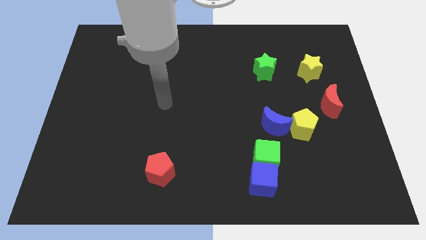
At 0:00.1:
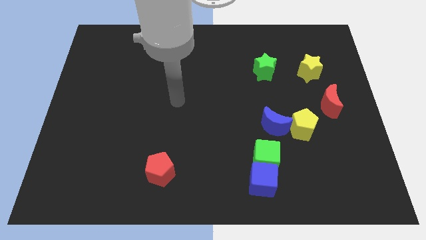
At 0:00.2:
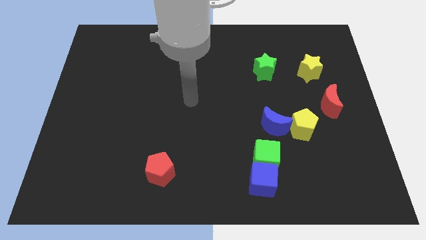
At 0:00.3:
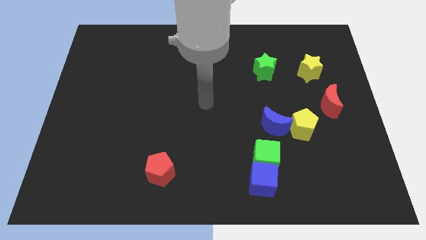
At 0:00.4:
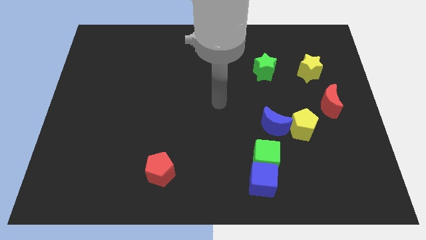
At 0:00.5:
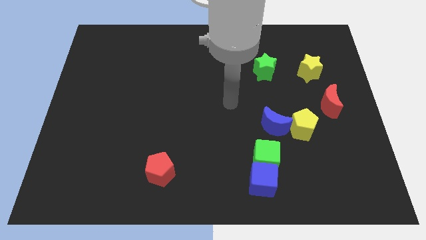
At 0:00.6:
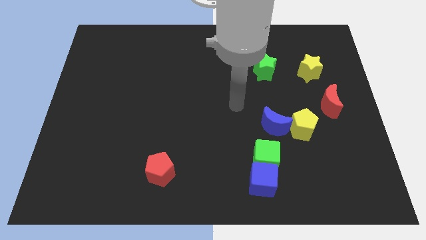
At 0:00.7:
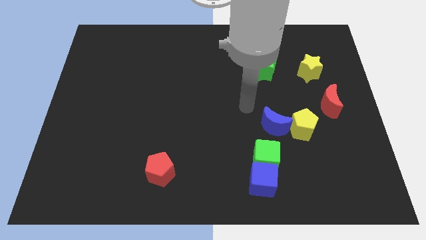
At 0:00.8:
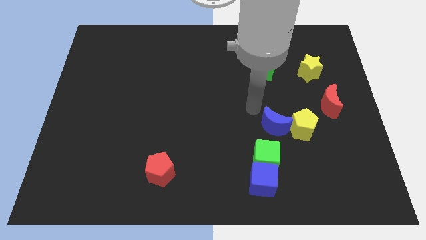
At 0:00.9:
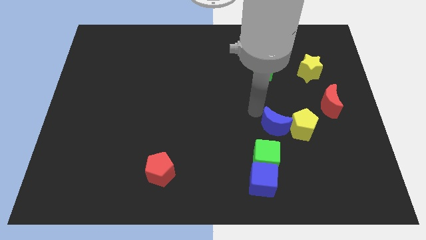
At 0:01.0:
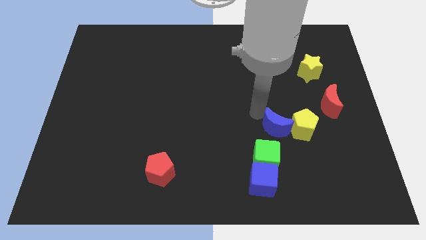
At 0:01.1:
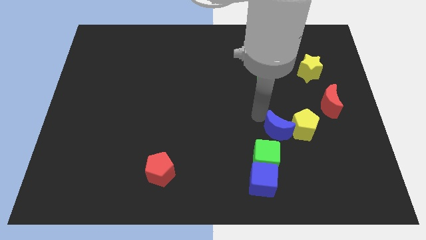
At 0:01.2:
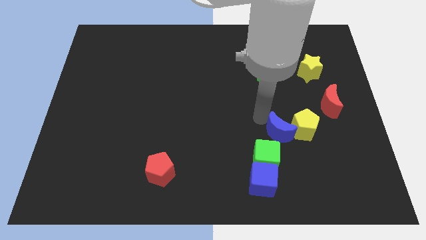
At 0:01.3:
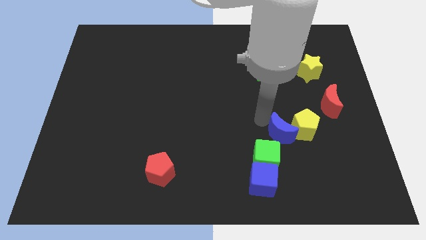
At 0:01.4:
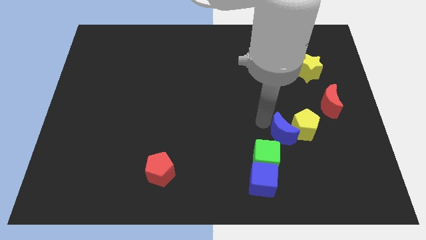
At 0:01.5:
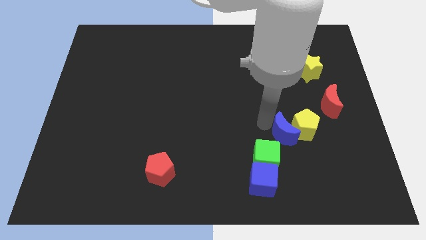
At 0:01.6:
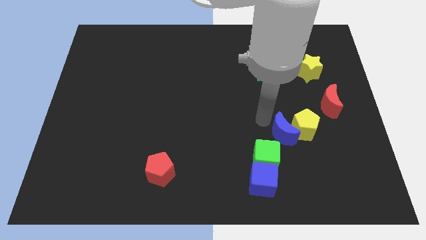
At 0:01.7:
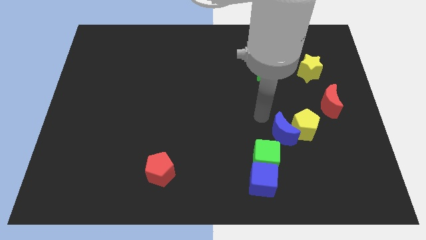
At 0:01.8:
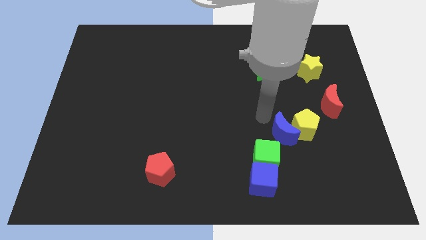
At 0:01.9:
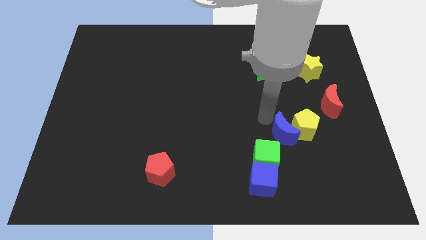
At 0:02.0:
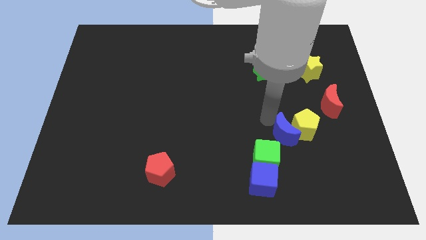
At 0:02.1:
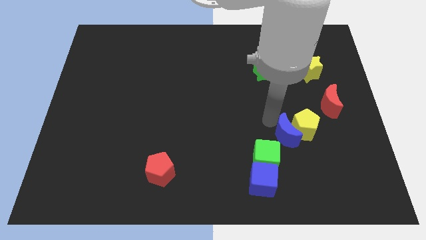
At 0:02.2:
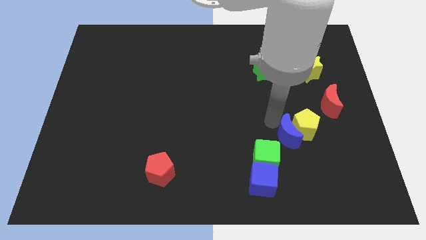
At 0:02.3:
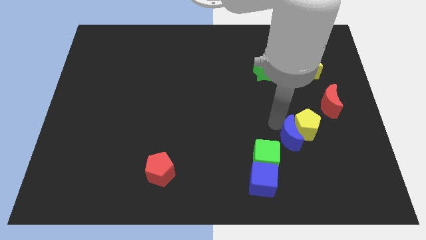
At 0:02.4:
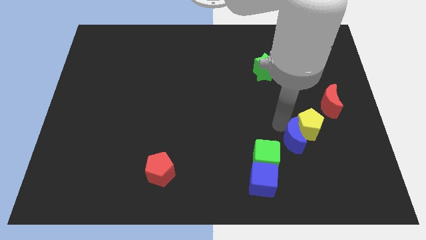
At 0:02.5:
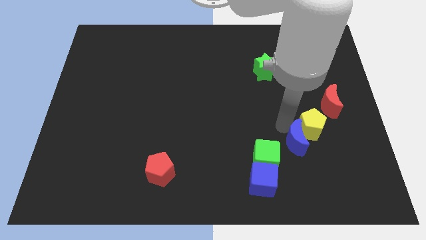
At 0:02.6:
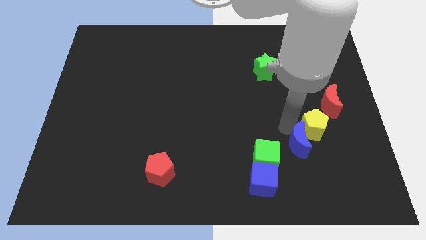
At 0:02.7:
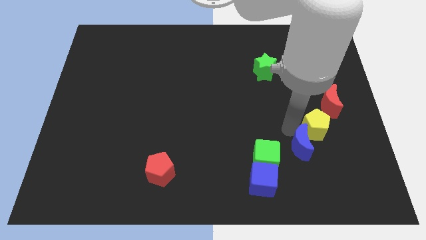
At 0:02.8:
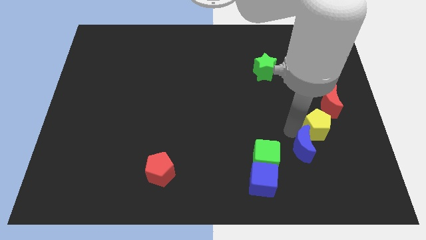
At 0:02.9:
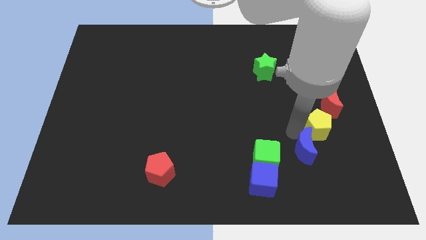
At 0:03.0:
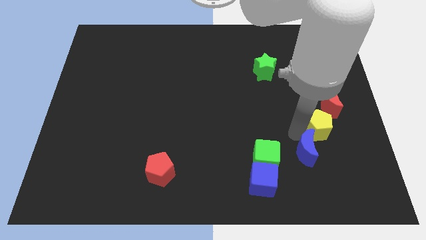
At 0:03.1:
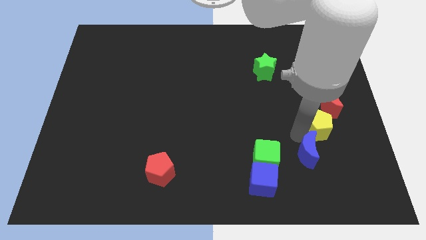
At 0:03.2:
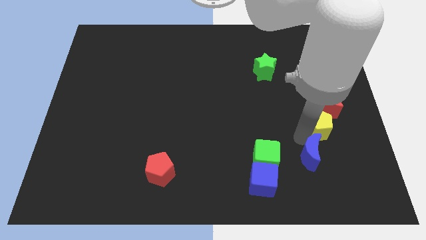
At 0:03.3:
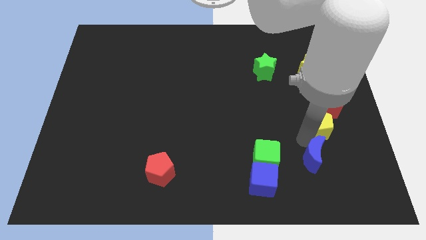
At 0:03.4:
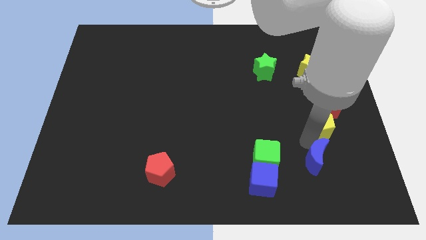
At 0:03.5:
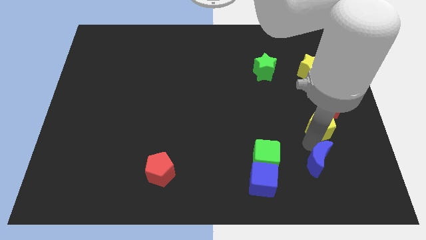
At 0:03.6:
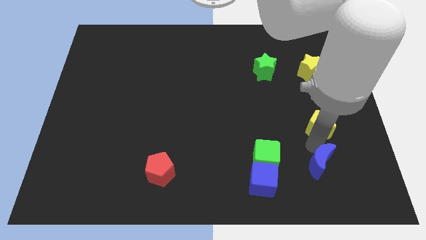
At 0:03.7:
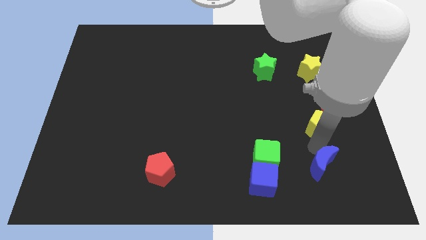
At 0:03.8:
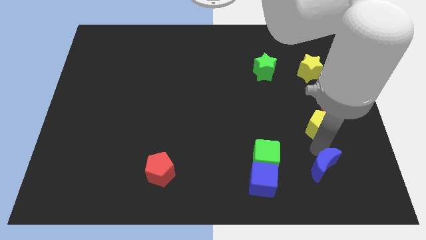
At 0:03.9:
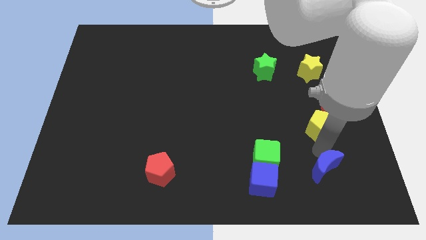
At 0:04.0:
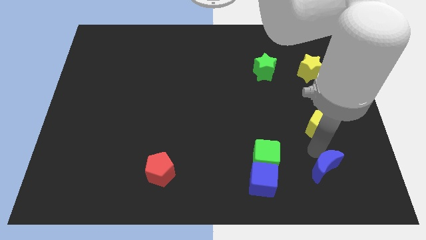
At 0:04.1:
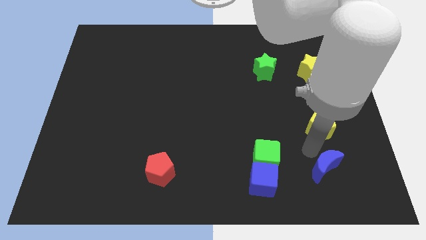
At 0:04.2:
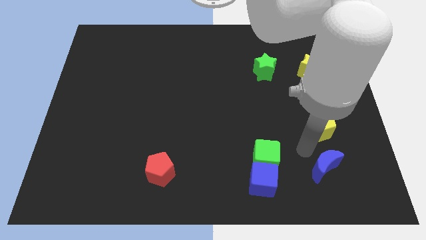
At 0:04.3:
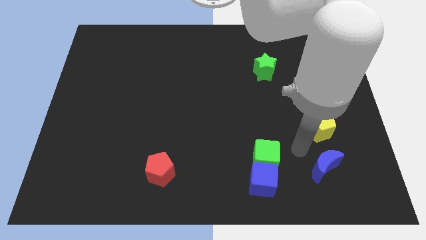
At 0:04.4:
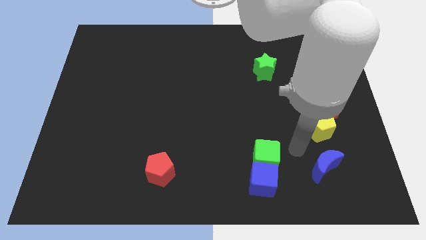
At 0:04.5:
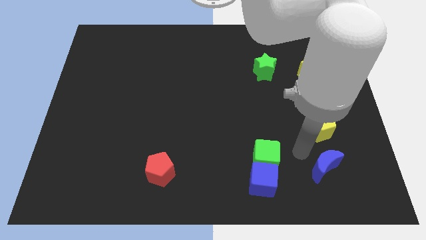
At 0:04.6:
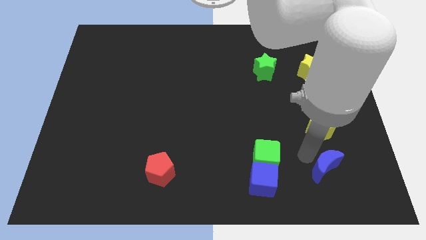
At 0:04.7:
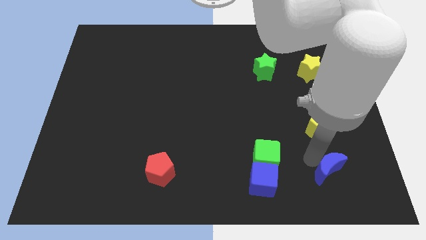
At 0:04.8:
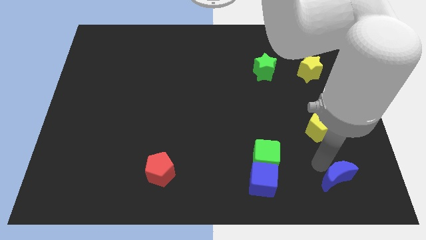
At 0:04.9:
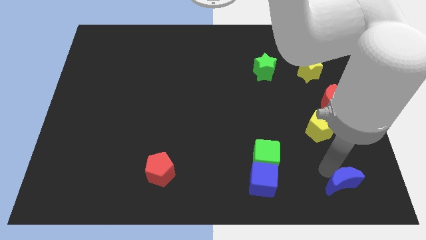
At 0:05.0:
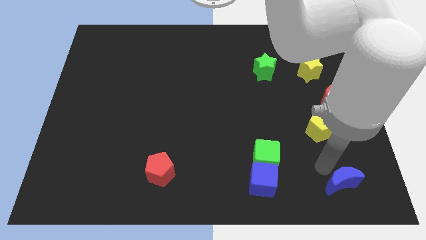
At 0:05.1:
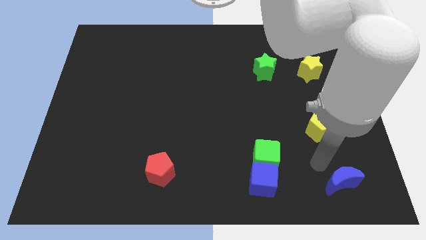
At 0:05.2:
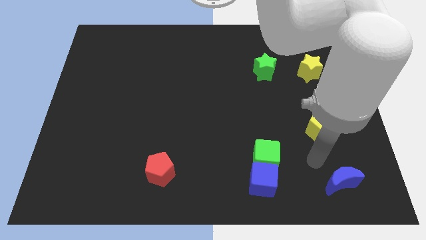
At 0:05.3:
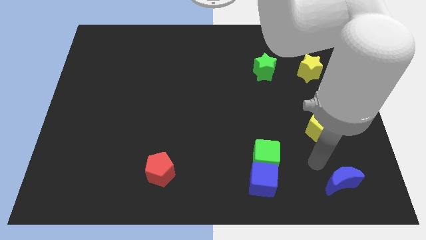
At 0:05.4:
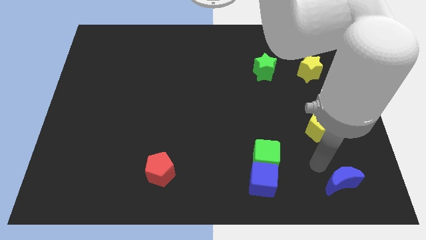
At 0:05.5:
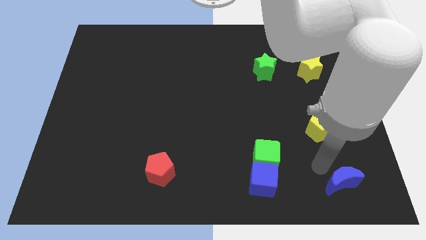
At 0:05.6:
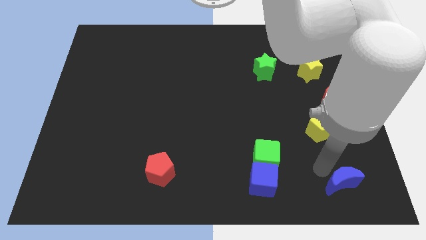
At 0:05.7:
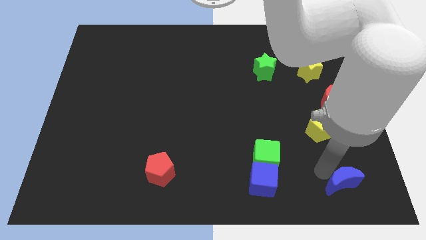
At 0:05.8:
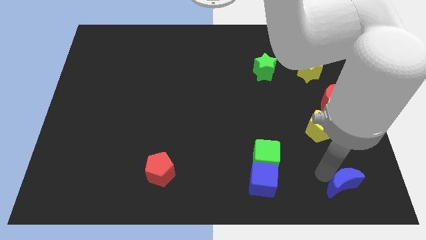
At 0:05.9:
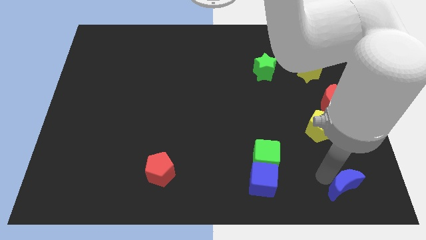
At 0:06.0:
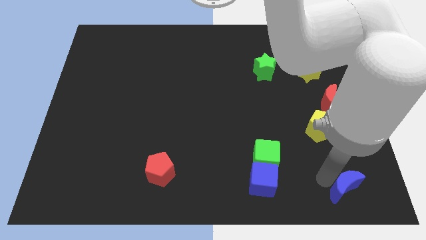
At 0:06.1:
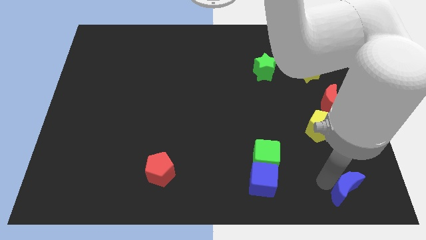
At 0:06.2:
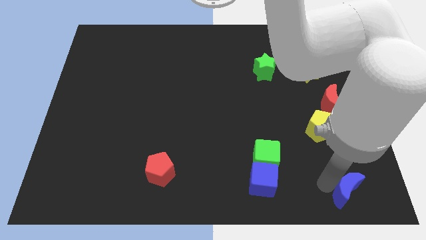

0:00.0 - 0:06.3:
push the blue moon to the bottom right corner
